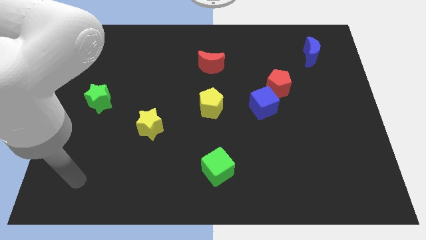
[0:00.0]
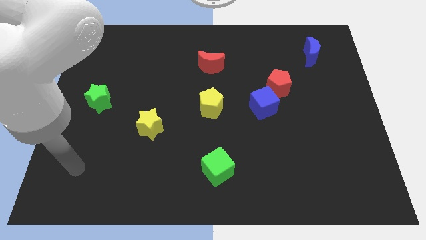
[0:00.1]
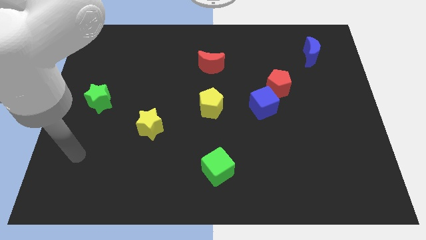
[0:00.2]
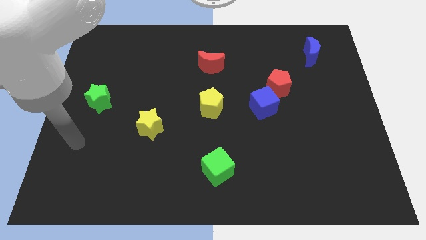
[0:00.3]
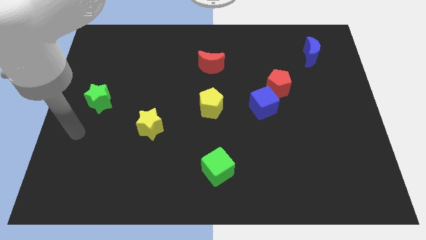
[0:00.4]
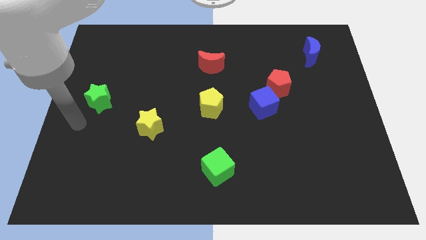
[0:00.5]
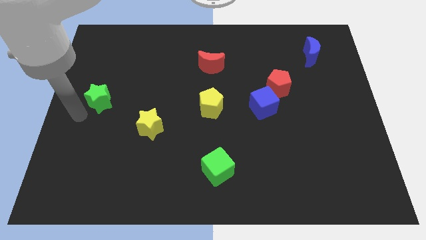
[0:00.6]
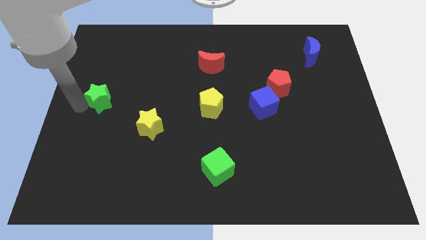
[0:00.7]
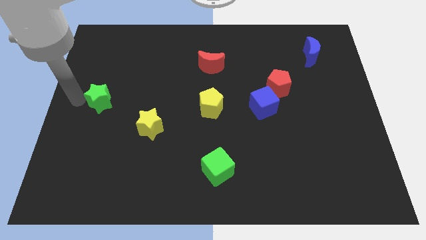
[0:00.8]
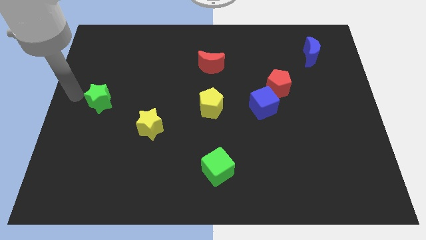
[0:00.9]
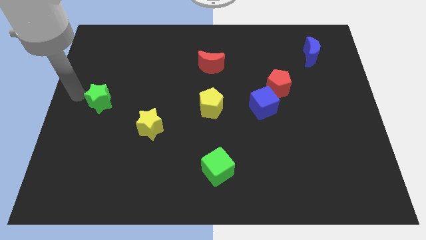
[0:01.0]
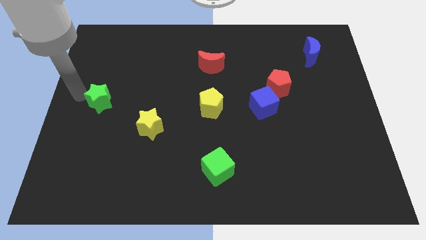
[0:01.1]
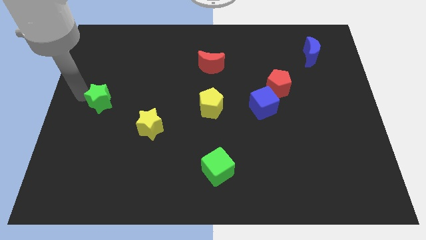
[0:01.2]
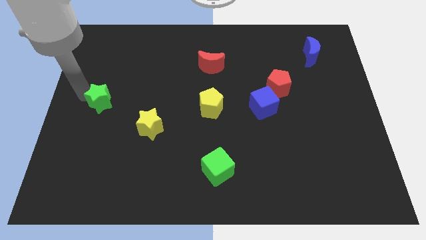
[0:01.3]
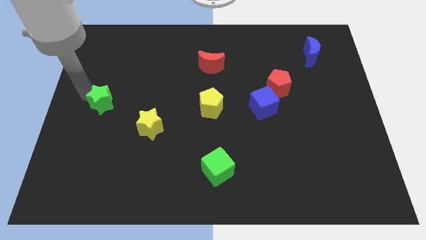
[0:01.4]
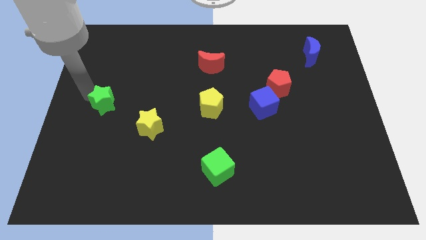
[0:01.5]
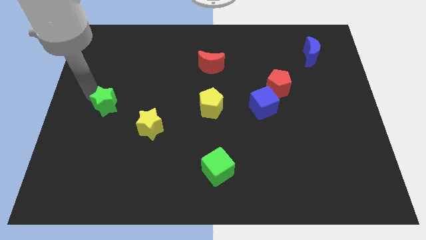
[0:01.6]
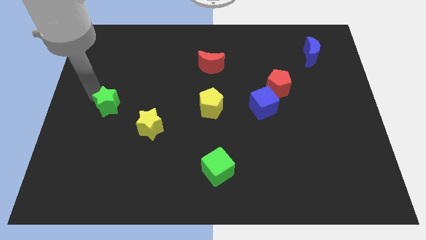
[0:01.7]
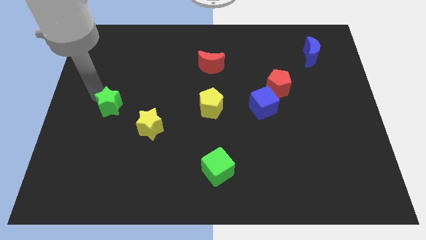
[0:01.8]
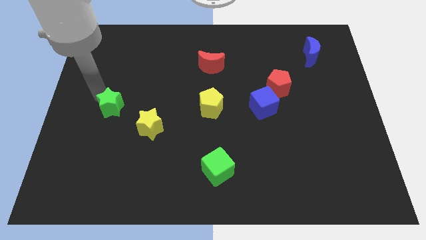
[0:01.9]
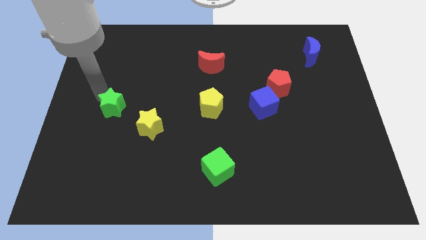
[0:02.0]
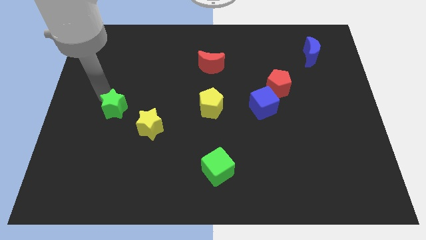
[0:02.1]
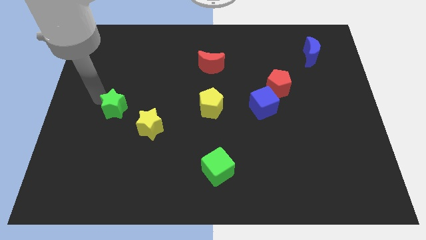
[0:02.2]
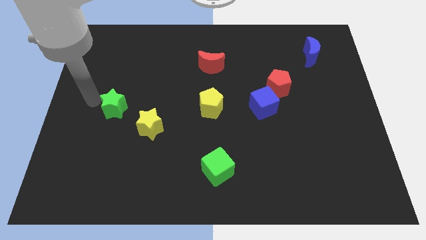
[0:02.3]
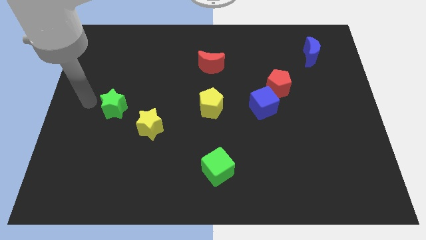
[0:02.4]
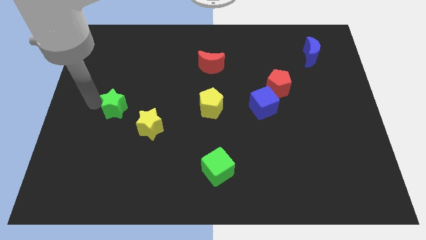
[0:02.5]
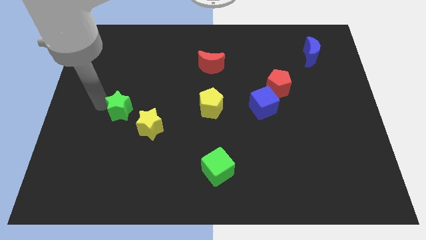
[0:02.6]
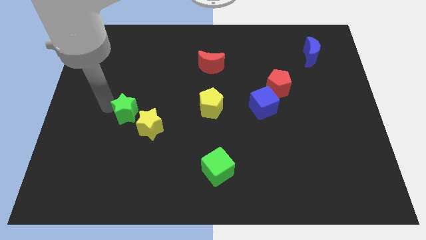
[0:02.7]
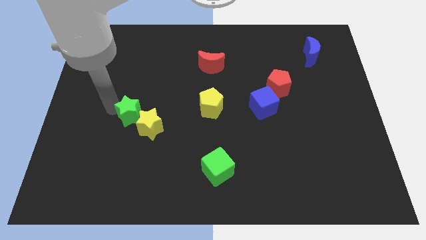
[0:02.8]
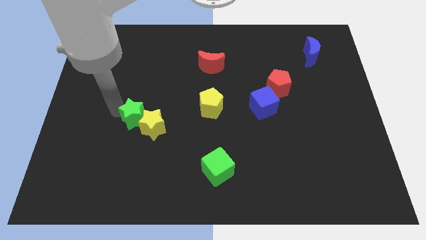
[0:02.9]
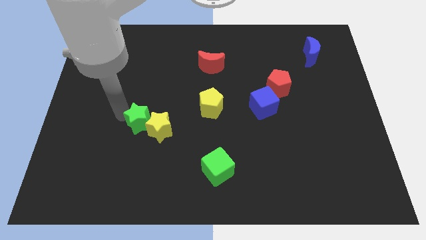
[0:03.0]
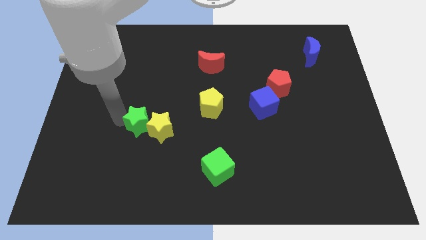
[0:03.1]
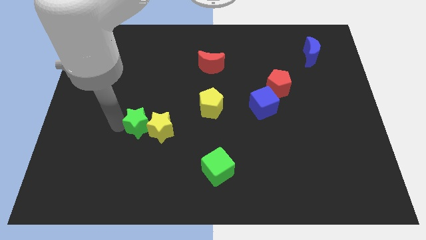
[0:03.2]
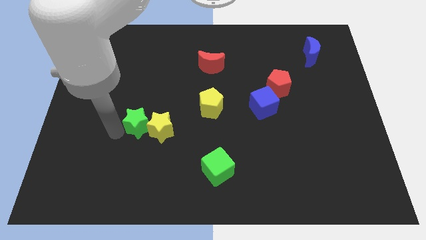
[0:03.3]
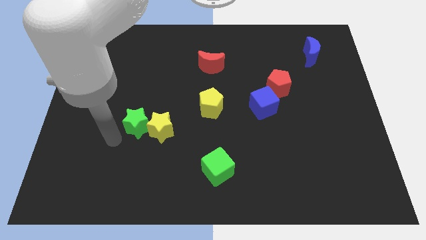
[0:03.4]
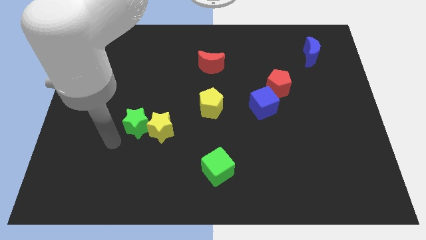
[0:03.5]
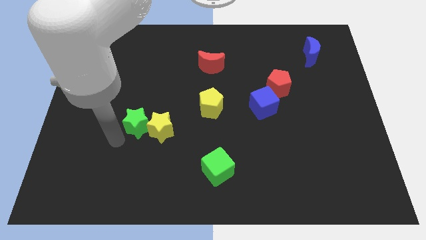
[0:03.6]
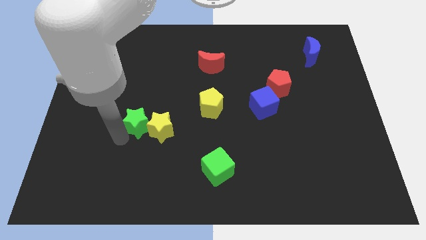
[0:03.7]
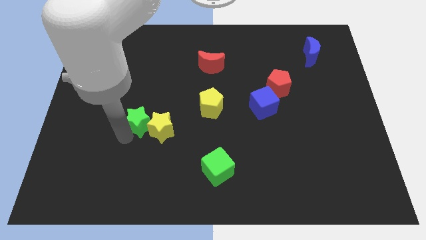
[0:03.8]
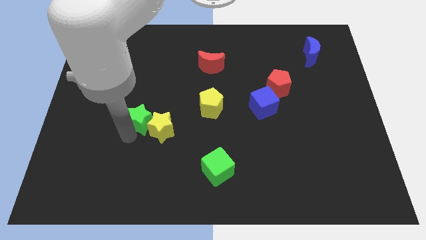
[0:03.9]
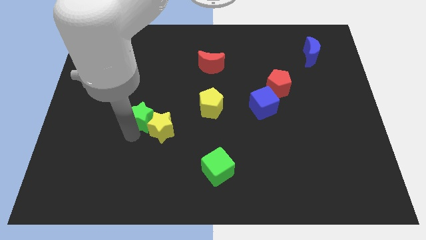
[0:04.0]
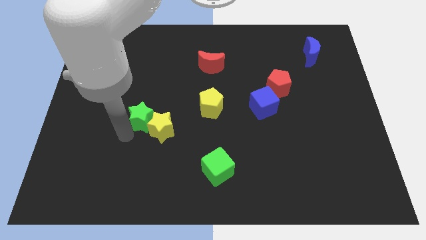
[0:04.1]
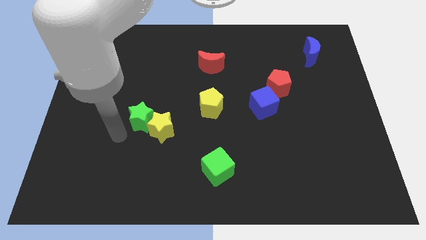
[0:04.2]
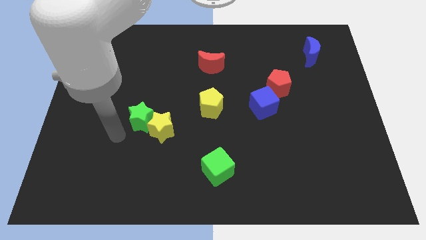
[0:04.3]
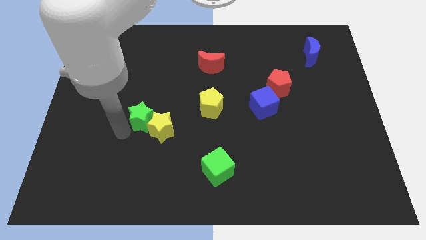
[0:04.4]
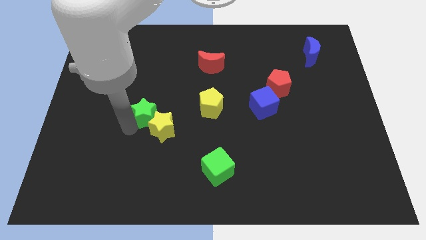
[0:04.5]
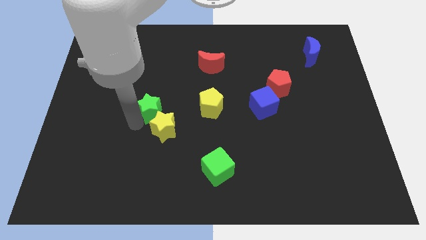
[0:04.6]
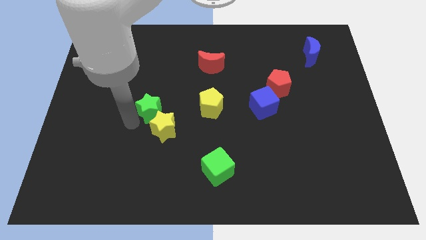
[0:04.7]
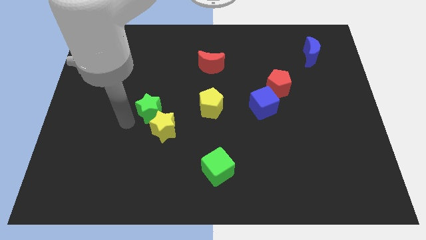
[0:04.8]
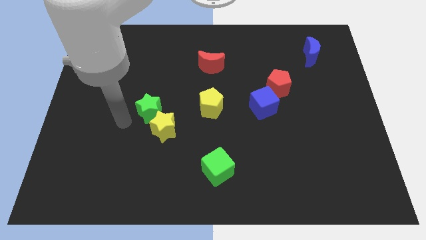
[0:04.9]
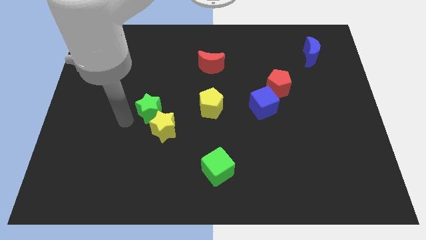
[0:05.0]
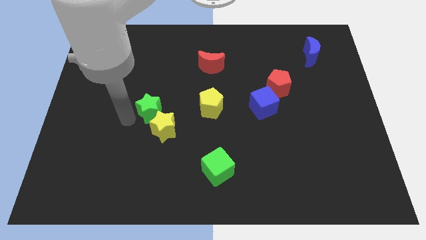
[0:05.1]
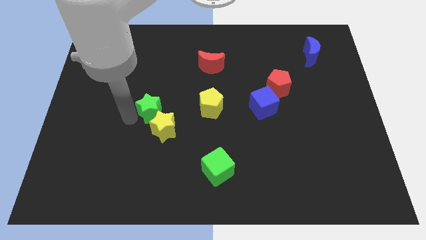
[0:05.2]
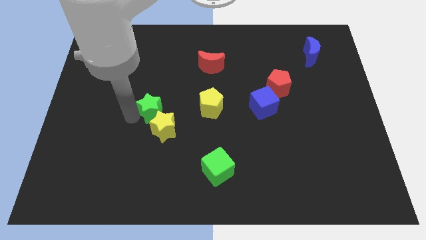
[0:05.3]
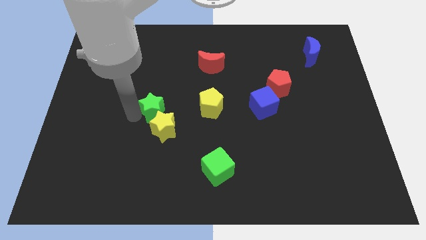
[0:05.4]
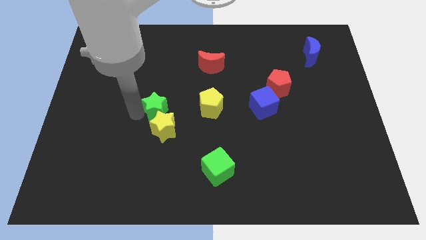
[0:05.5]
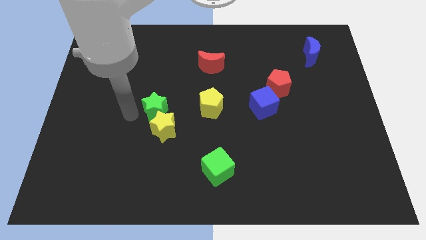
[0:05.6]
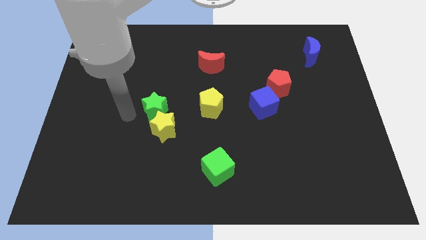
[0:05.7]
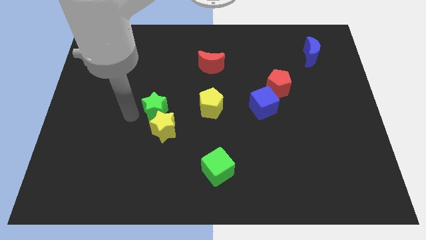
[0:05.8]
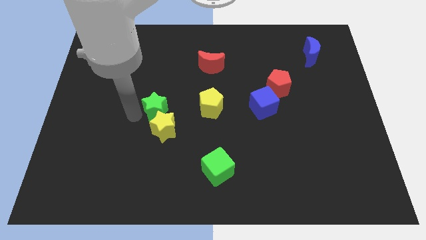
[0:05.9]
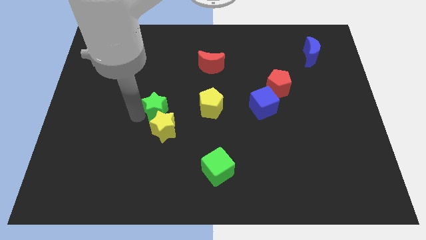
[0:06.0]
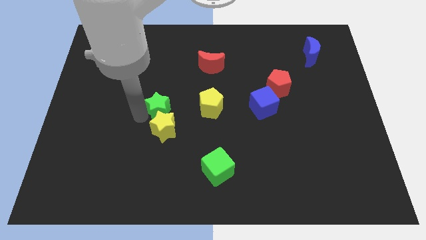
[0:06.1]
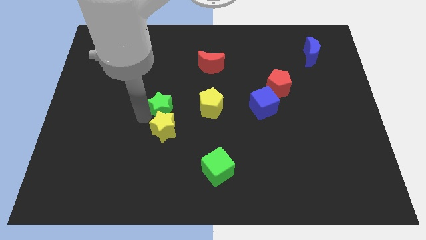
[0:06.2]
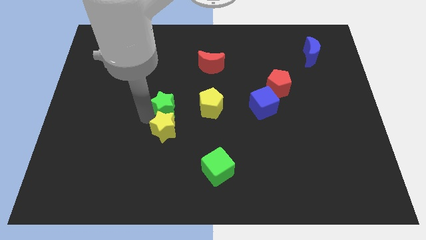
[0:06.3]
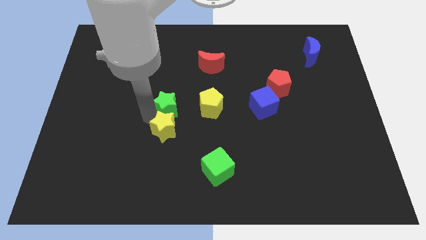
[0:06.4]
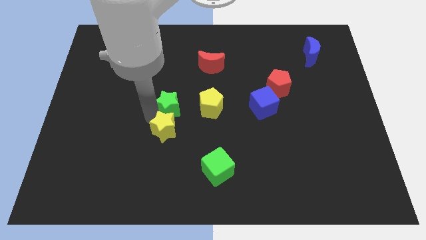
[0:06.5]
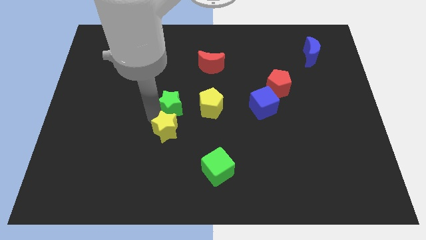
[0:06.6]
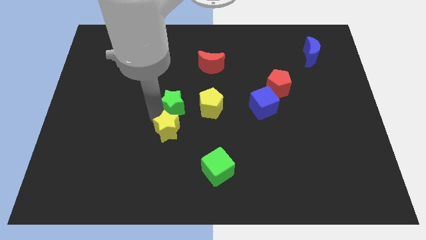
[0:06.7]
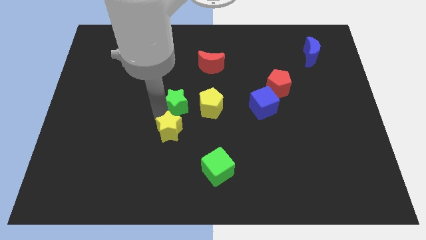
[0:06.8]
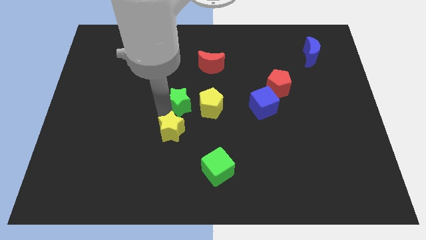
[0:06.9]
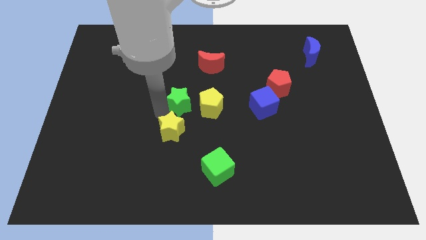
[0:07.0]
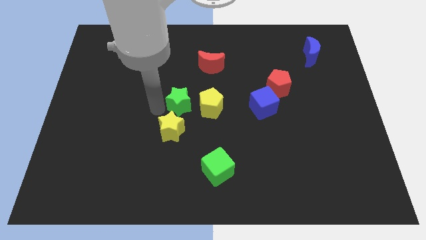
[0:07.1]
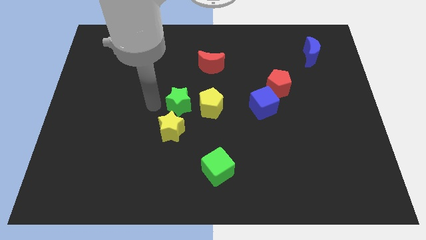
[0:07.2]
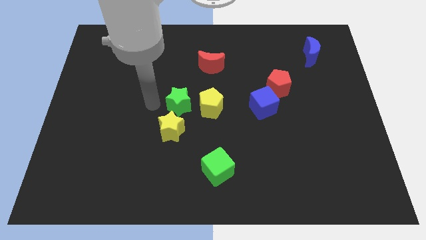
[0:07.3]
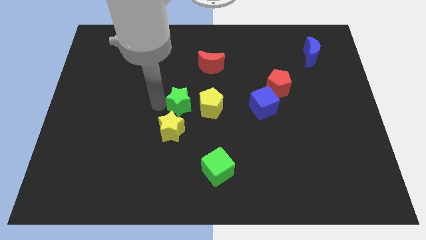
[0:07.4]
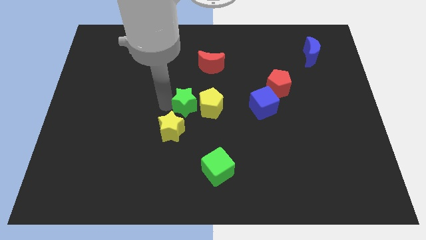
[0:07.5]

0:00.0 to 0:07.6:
push the green star close to the yellow pentagon
